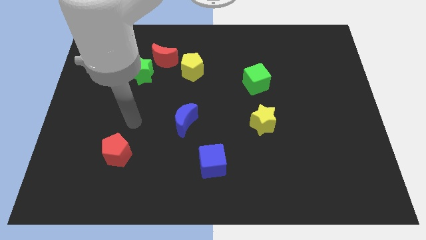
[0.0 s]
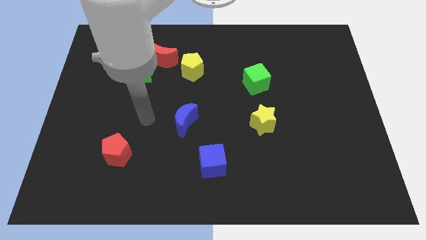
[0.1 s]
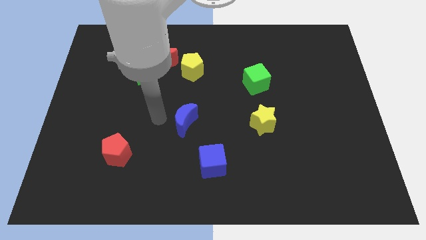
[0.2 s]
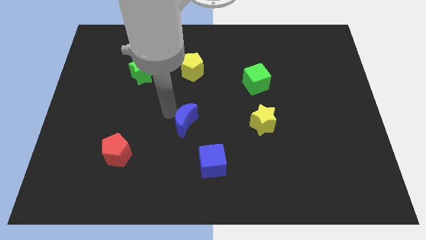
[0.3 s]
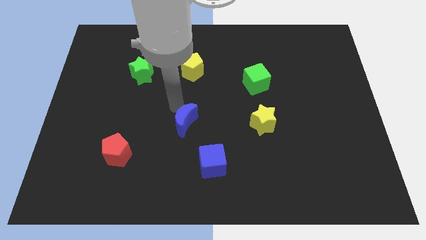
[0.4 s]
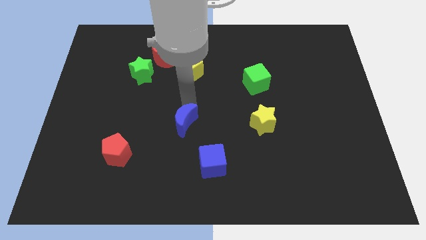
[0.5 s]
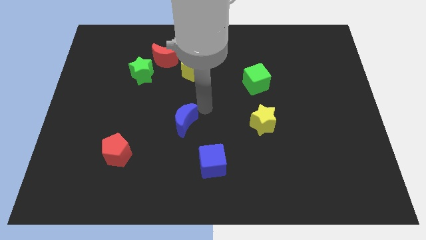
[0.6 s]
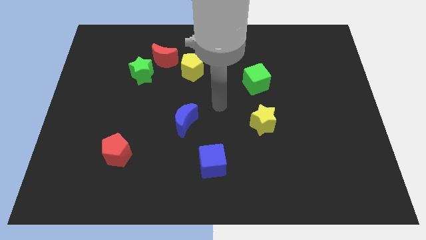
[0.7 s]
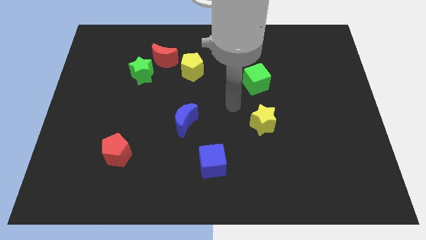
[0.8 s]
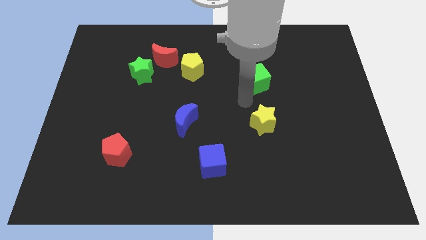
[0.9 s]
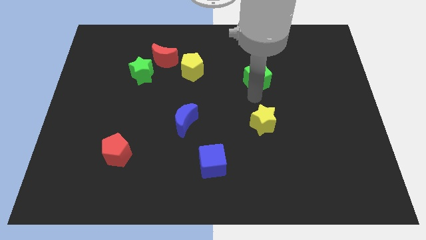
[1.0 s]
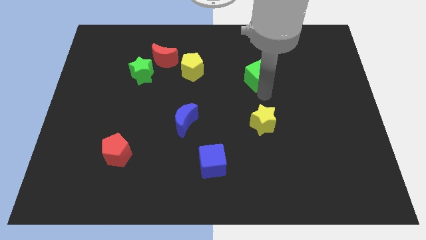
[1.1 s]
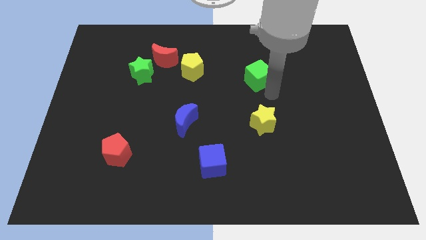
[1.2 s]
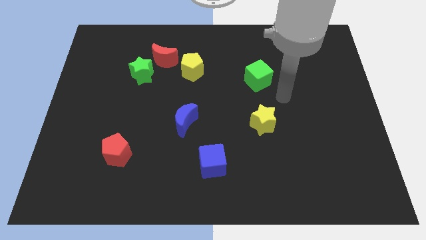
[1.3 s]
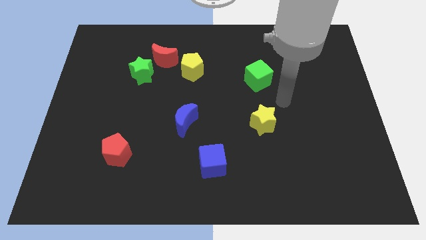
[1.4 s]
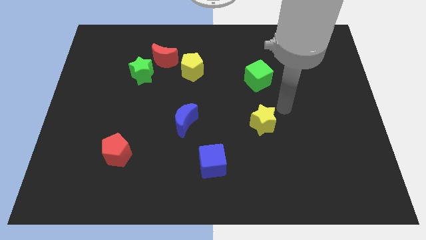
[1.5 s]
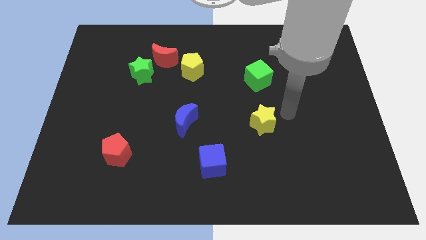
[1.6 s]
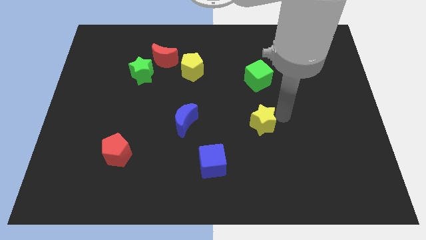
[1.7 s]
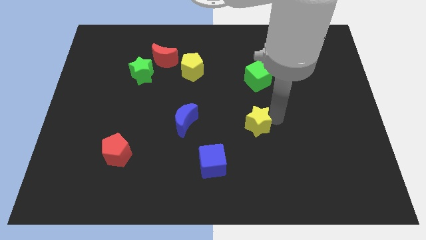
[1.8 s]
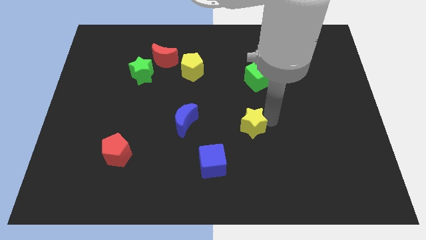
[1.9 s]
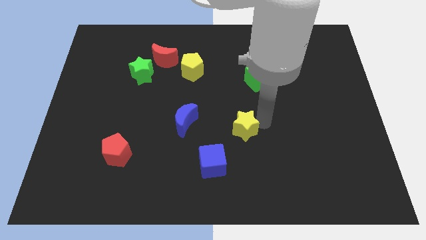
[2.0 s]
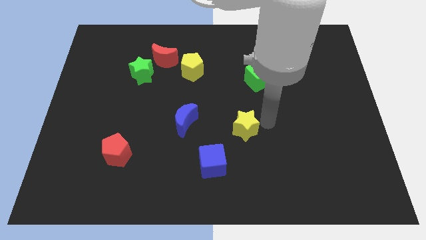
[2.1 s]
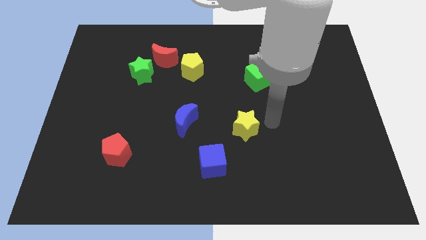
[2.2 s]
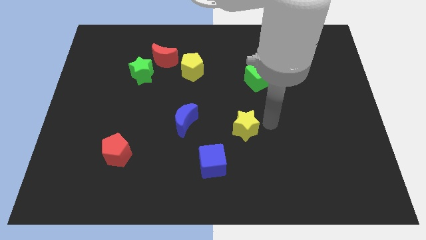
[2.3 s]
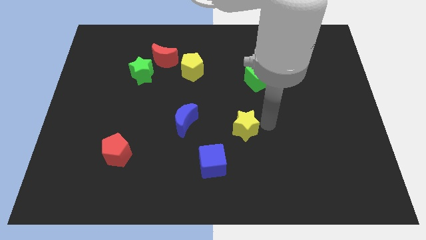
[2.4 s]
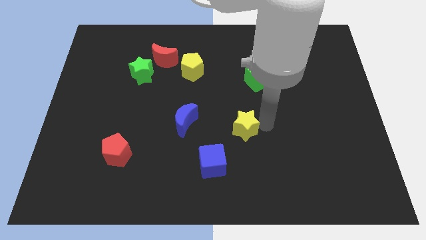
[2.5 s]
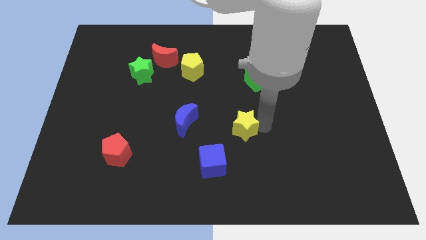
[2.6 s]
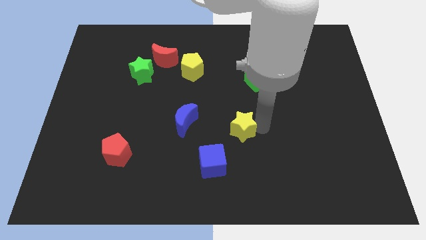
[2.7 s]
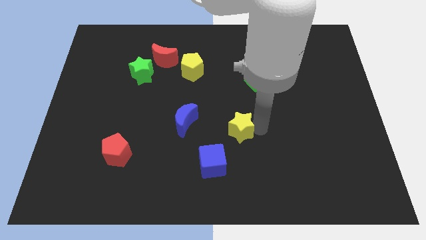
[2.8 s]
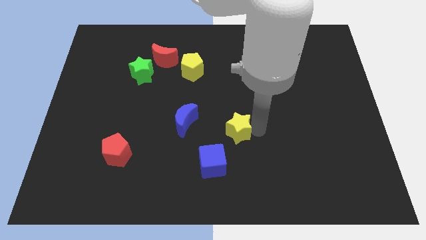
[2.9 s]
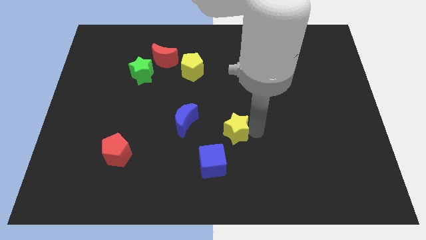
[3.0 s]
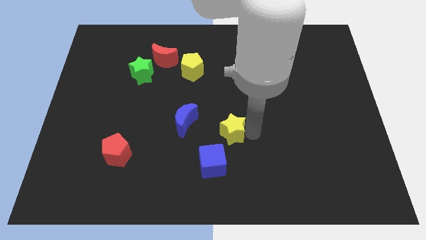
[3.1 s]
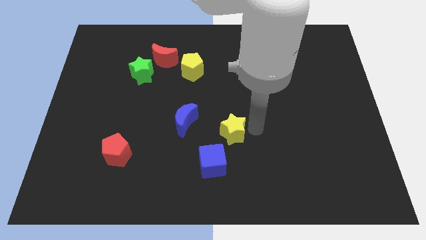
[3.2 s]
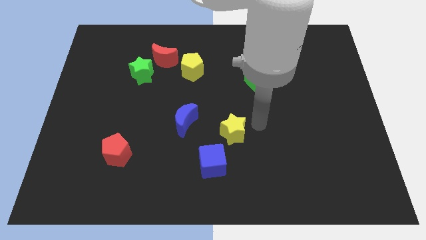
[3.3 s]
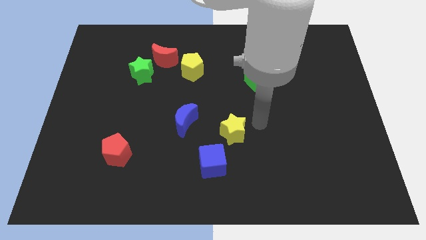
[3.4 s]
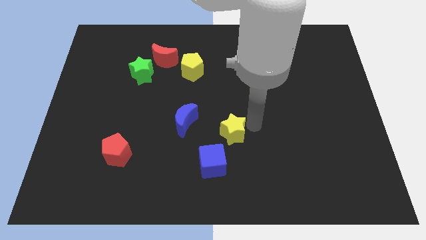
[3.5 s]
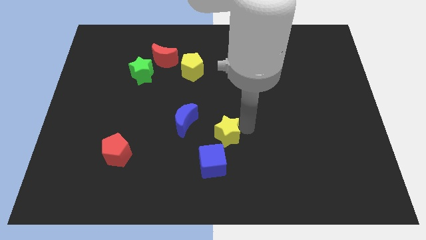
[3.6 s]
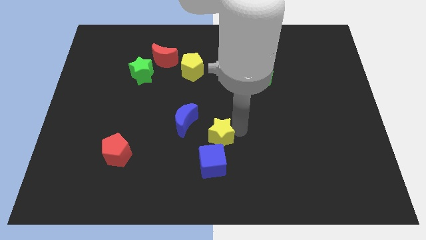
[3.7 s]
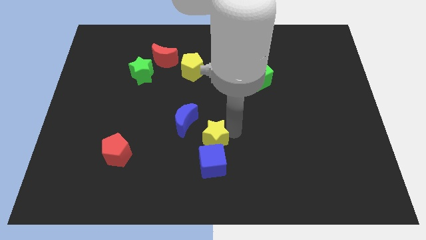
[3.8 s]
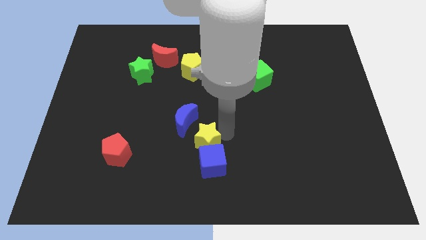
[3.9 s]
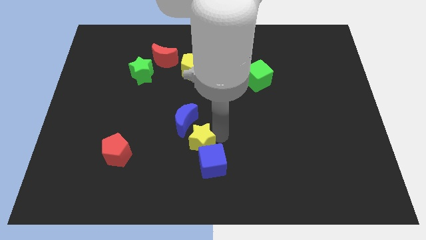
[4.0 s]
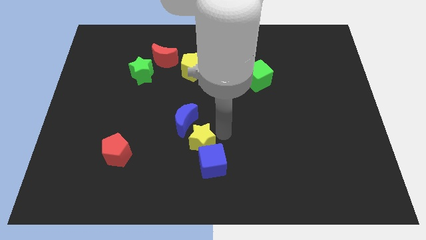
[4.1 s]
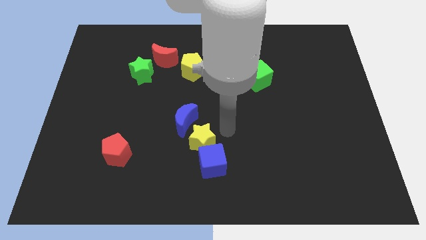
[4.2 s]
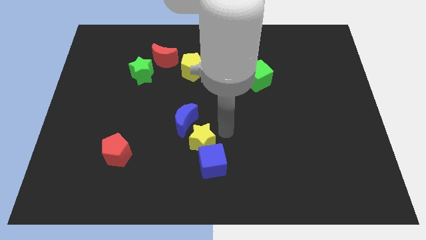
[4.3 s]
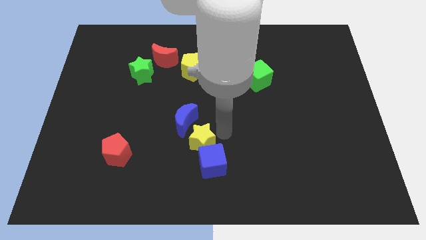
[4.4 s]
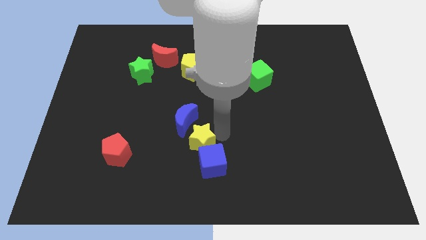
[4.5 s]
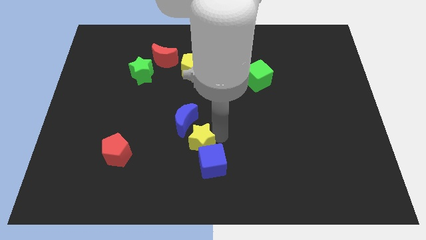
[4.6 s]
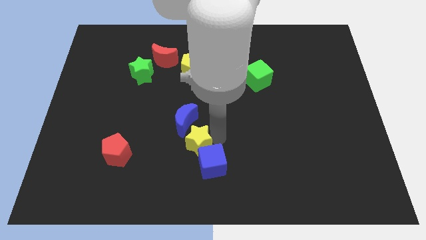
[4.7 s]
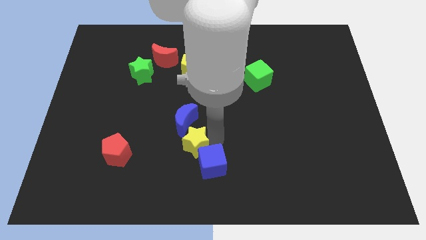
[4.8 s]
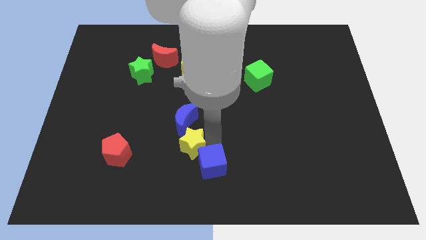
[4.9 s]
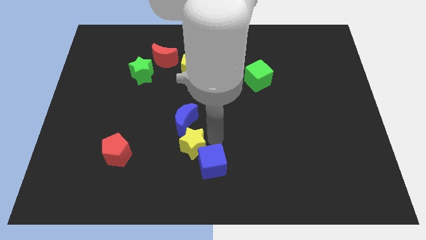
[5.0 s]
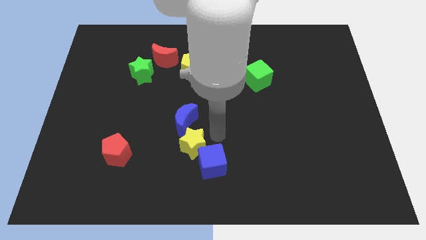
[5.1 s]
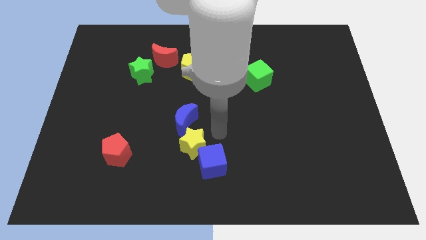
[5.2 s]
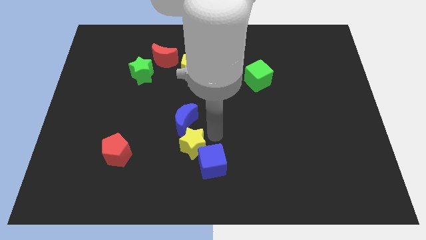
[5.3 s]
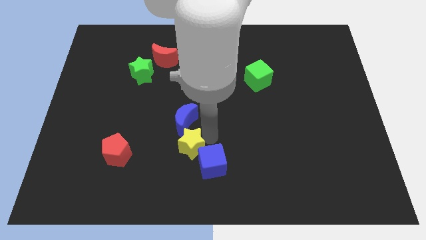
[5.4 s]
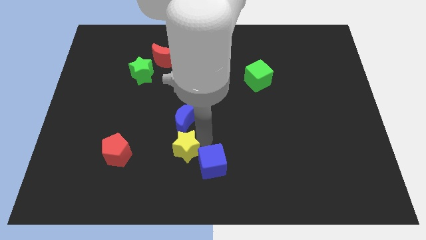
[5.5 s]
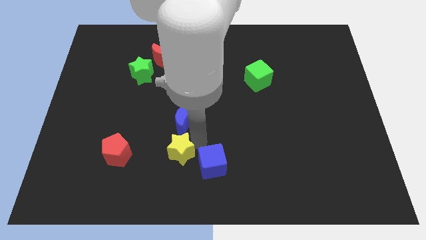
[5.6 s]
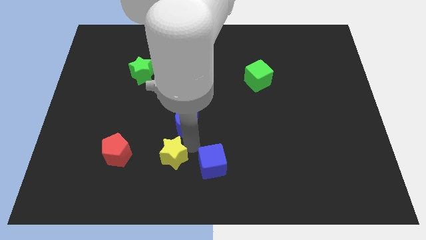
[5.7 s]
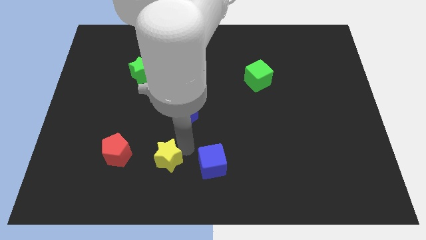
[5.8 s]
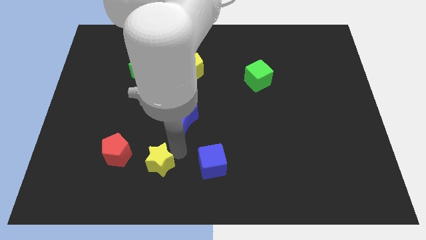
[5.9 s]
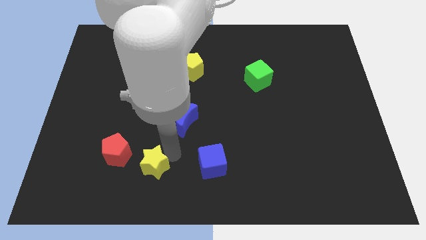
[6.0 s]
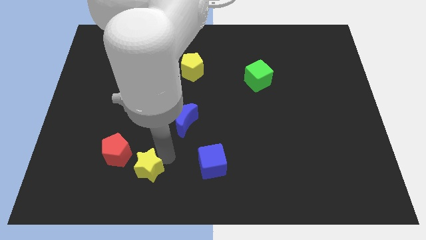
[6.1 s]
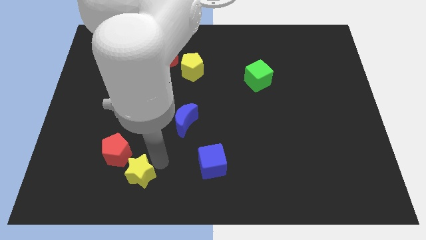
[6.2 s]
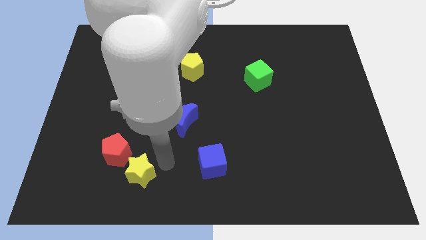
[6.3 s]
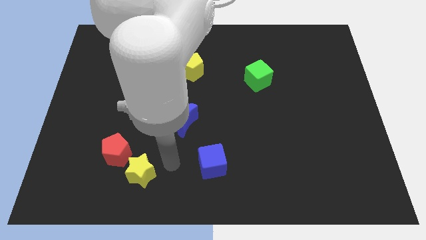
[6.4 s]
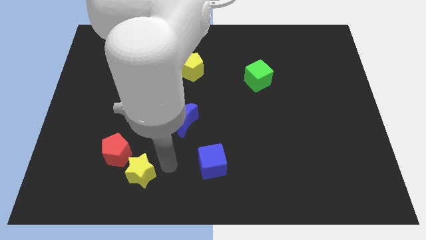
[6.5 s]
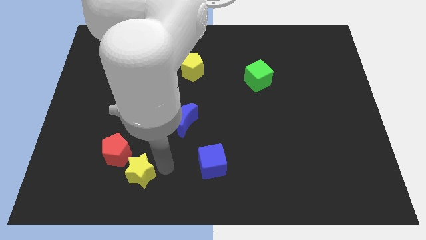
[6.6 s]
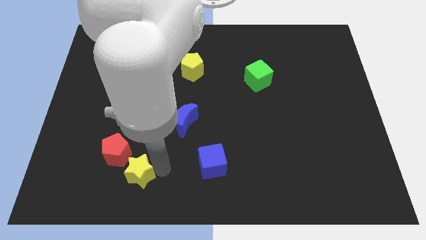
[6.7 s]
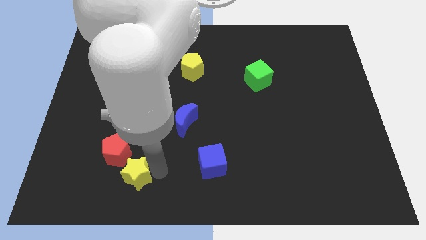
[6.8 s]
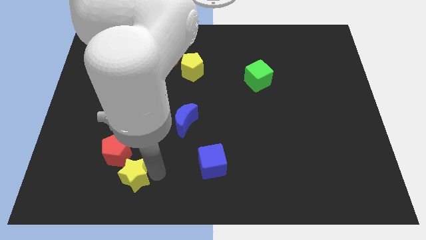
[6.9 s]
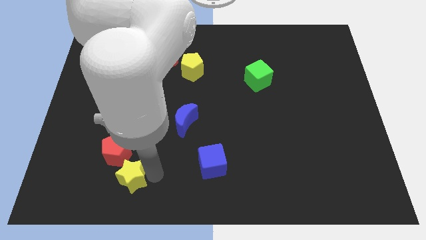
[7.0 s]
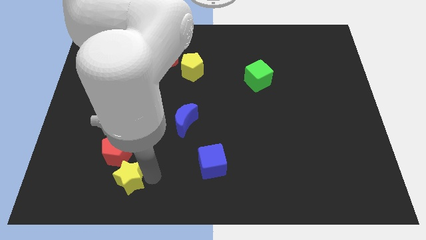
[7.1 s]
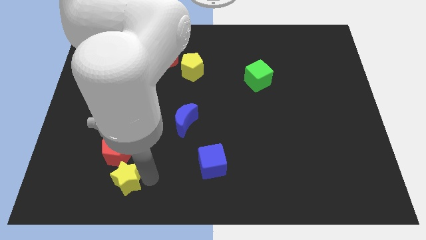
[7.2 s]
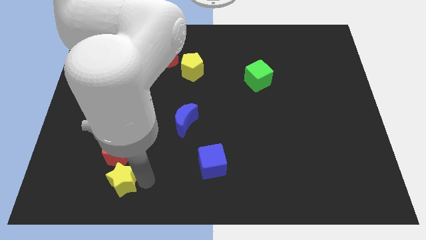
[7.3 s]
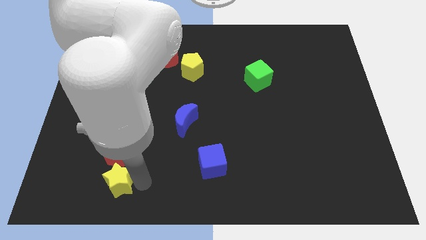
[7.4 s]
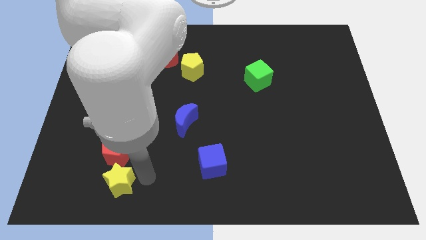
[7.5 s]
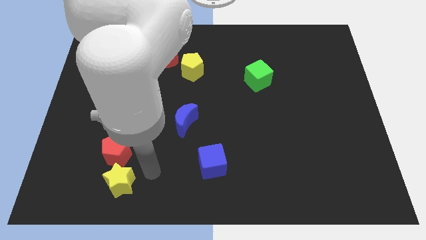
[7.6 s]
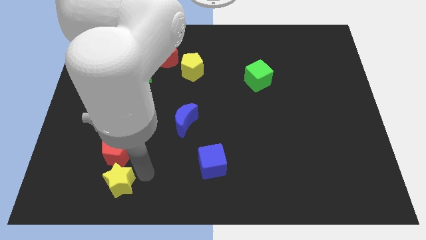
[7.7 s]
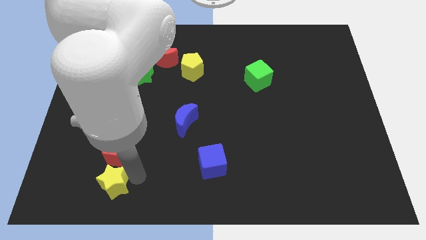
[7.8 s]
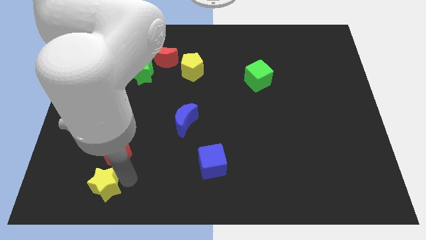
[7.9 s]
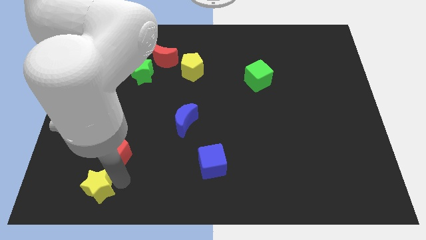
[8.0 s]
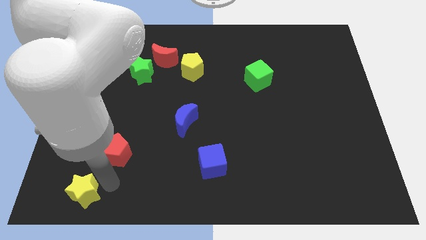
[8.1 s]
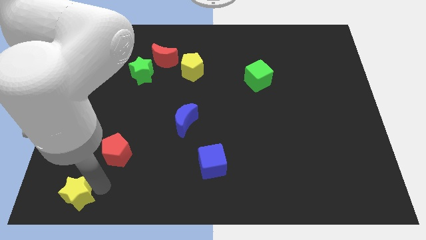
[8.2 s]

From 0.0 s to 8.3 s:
put the yellow star to the lower left corner
